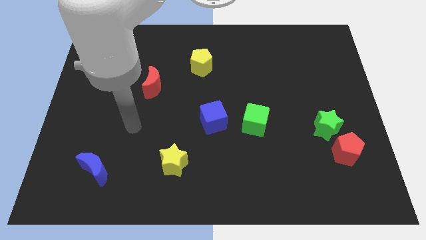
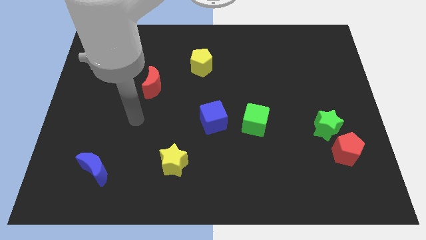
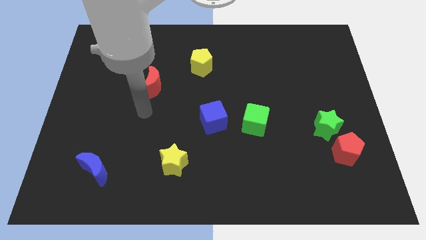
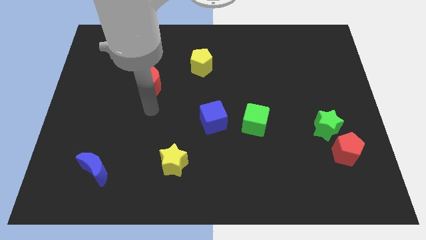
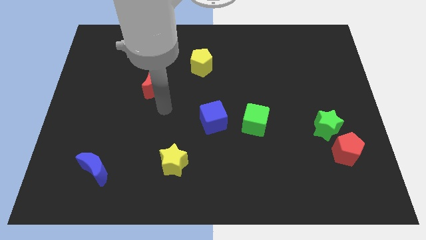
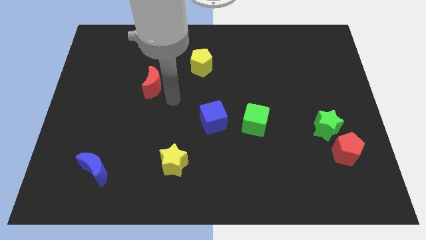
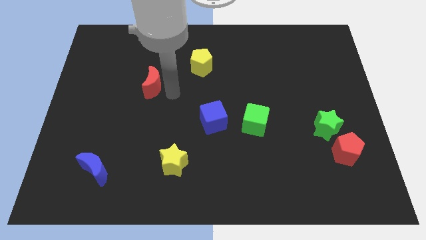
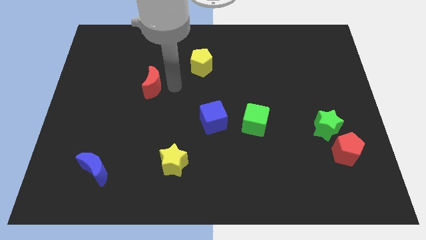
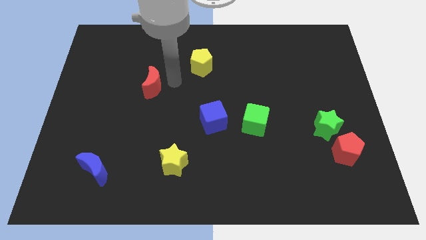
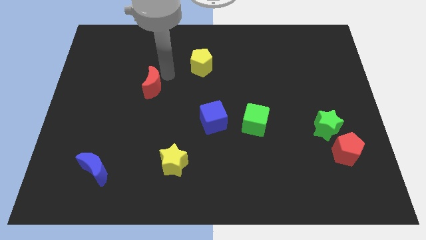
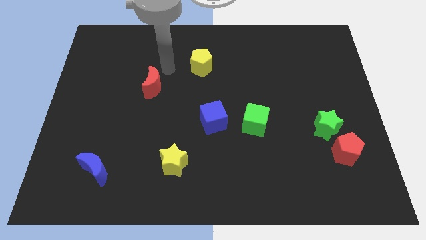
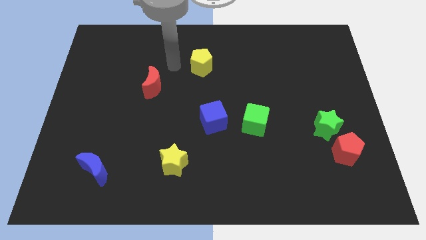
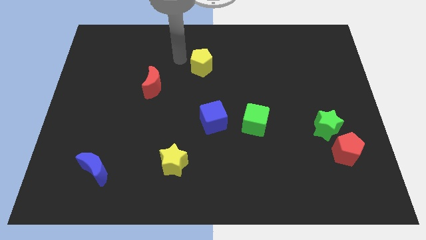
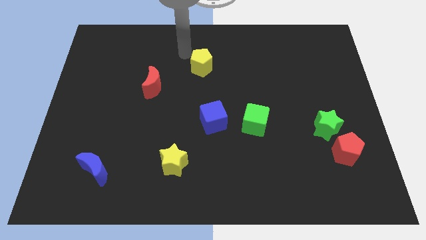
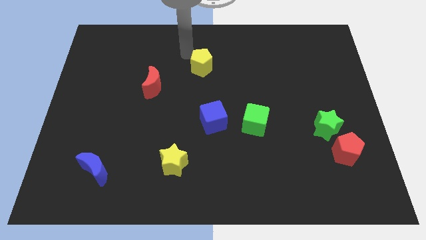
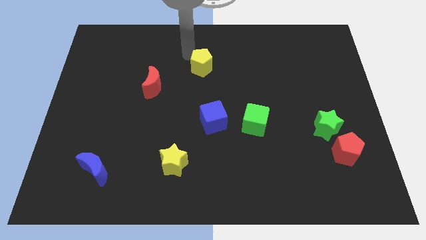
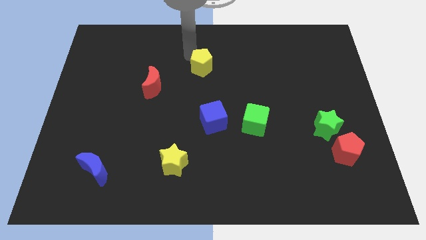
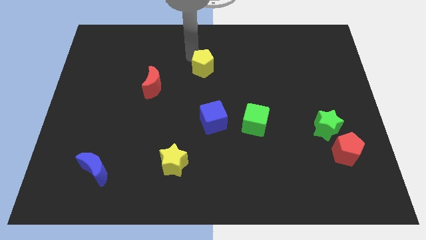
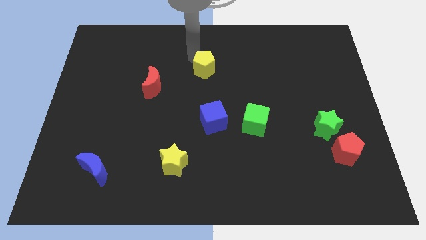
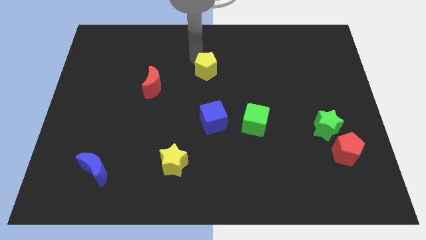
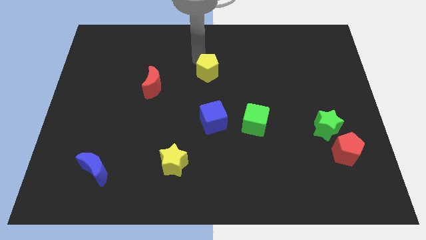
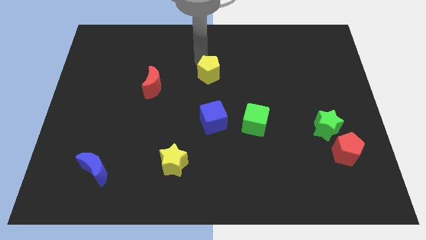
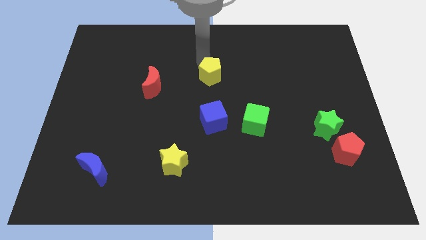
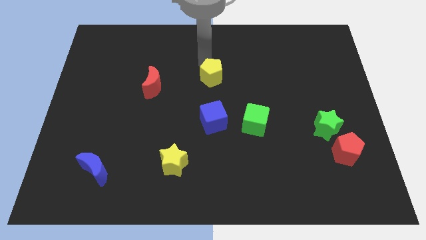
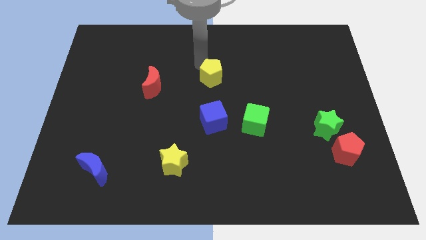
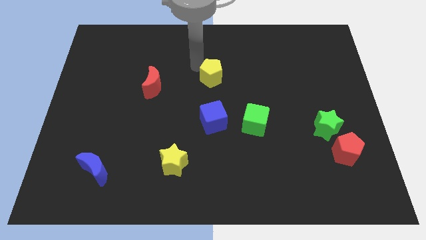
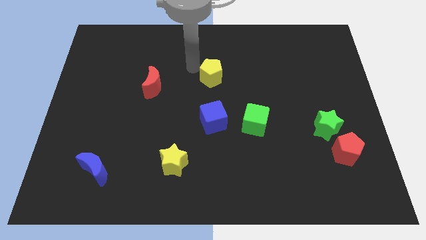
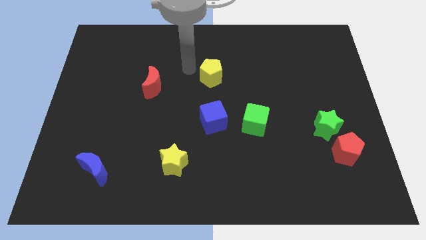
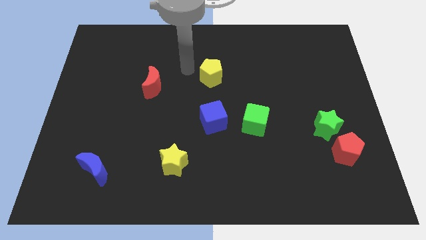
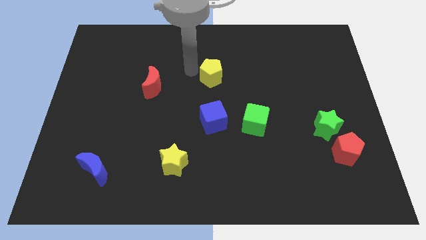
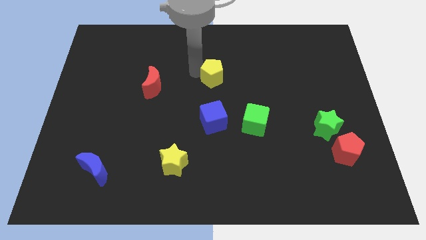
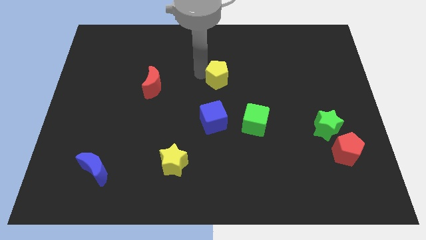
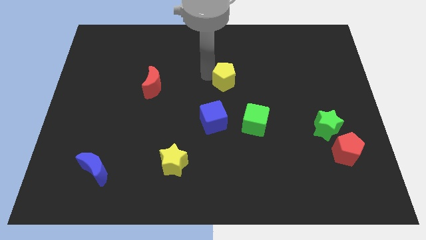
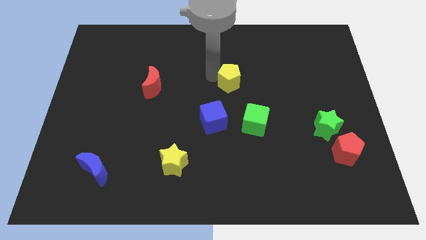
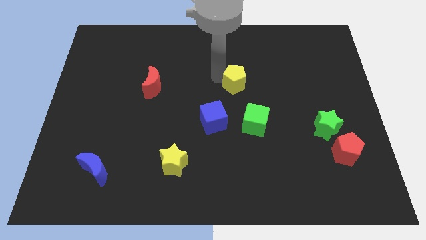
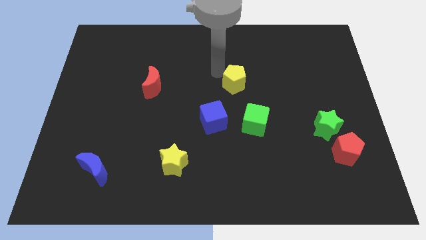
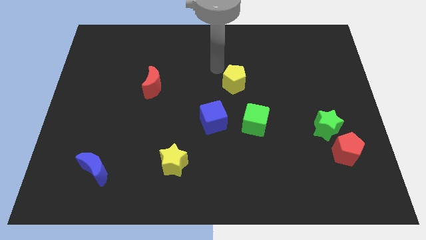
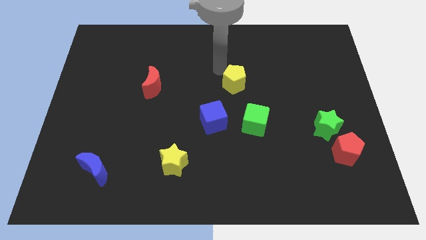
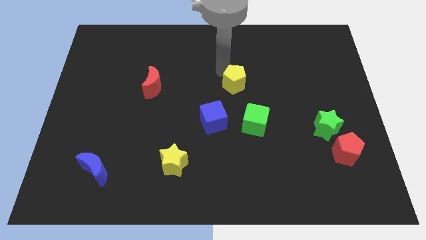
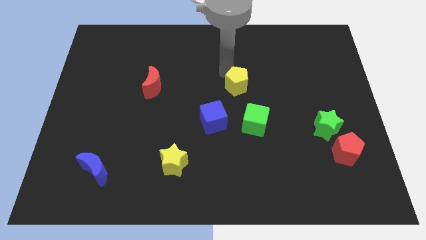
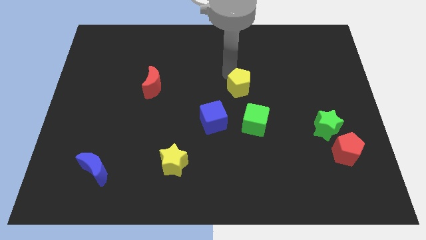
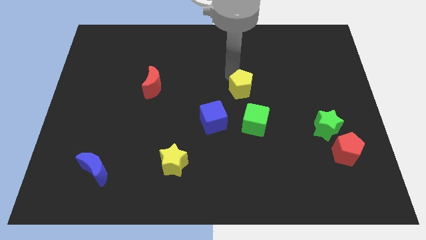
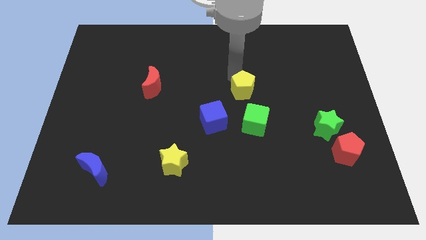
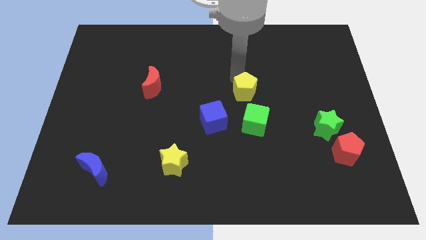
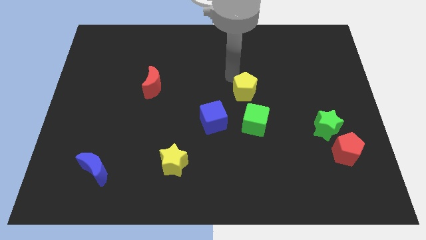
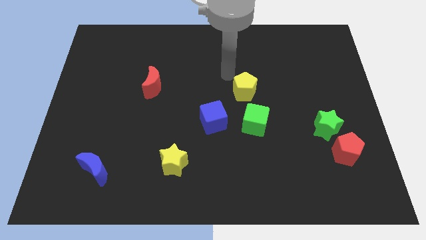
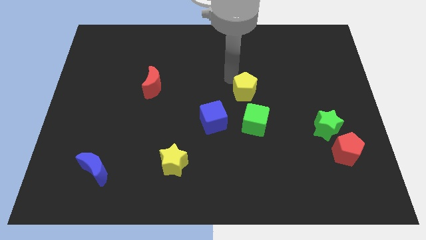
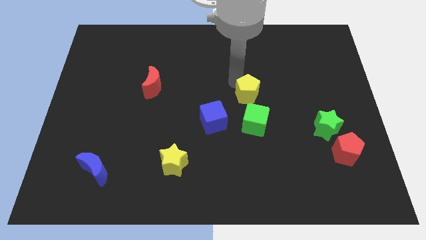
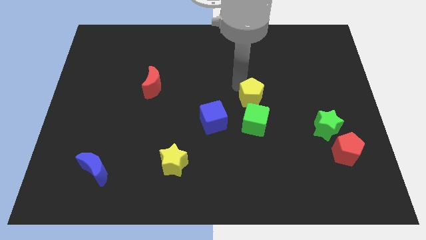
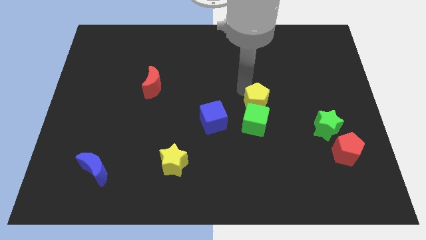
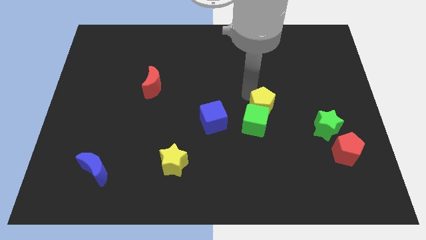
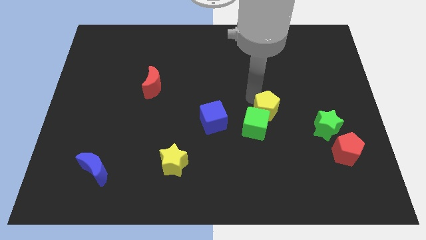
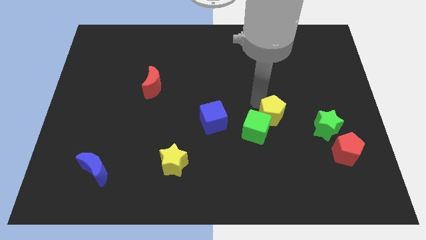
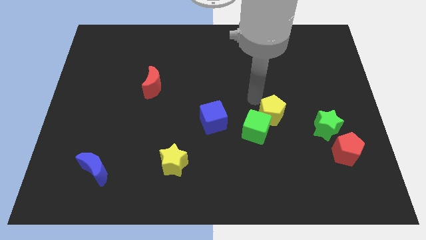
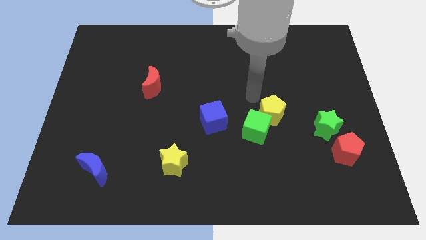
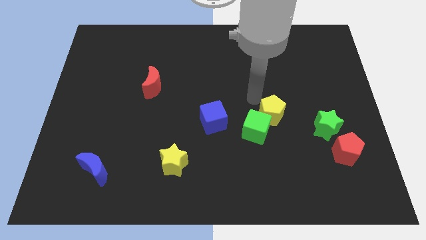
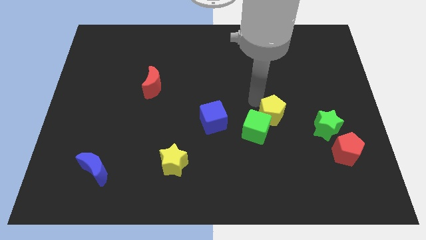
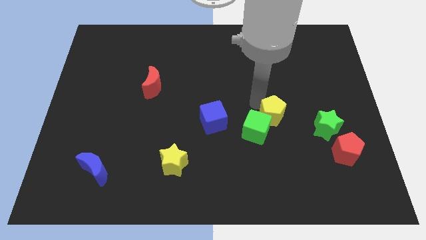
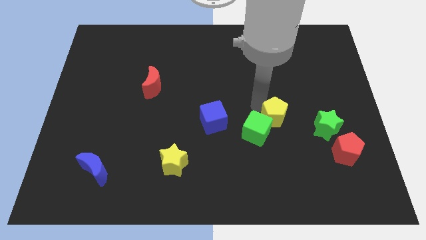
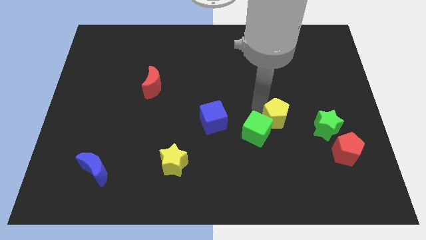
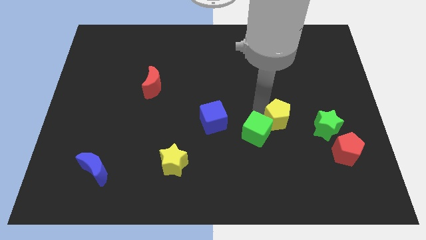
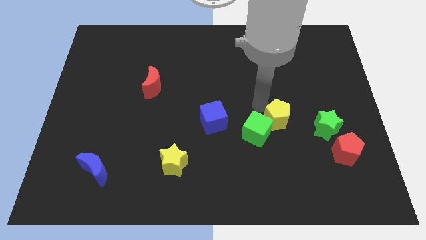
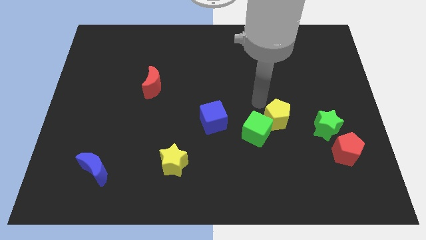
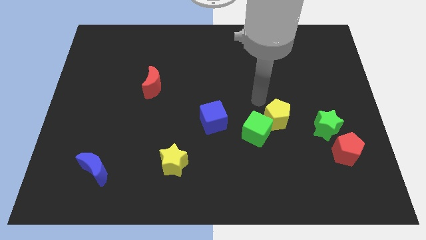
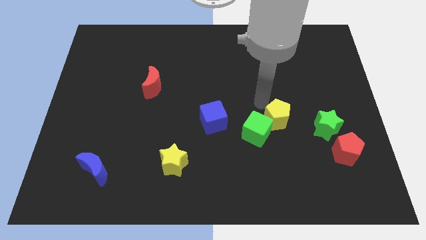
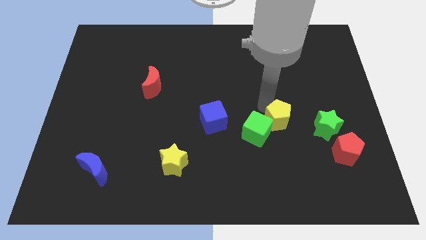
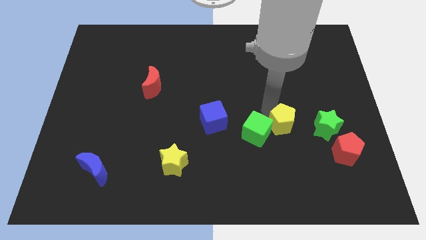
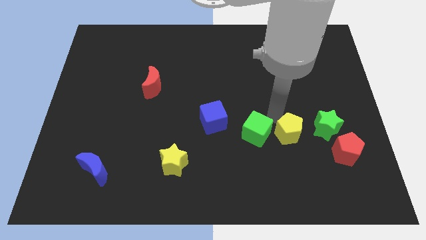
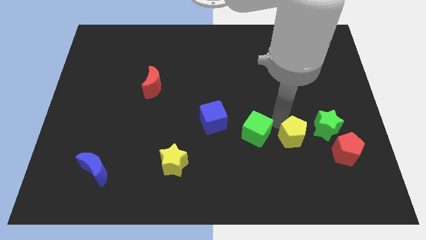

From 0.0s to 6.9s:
move the yellow pentagon to the bottom left side of the green star

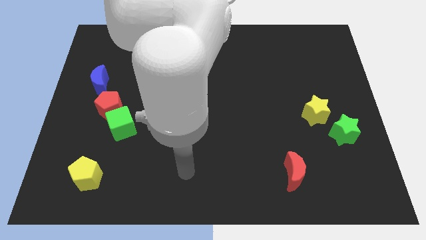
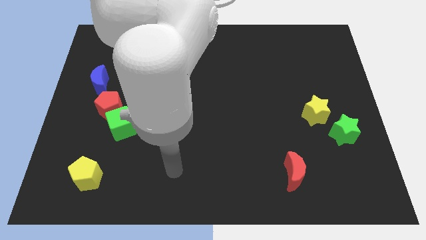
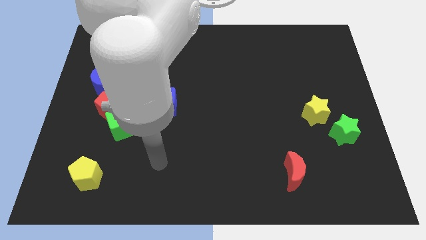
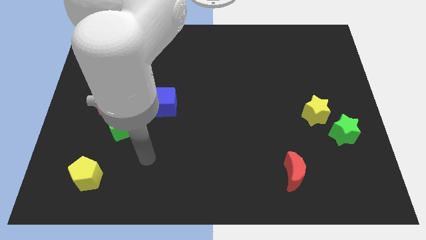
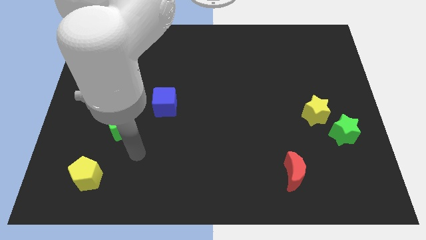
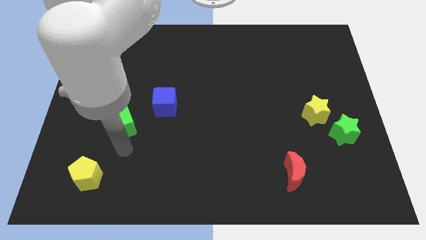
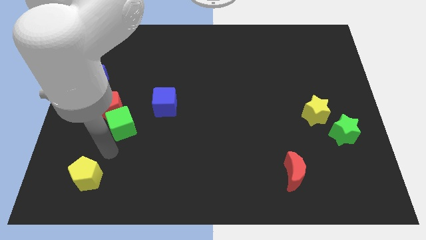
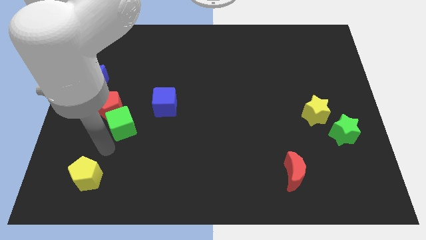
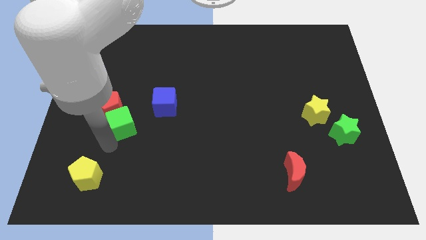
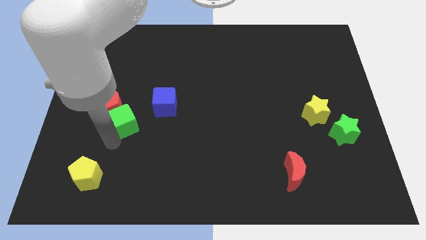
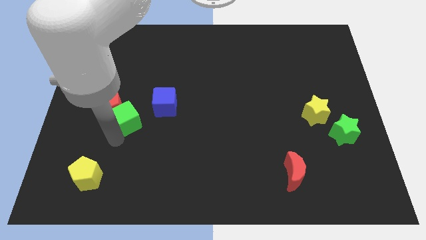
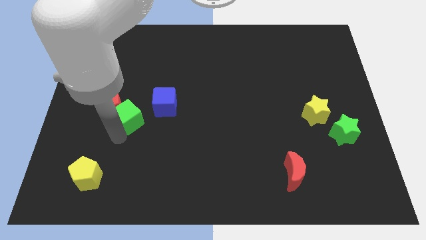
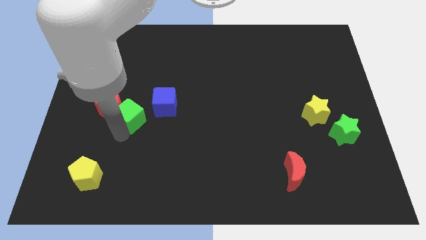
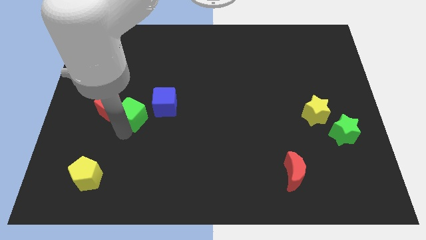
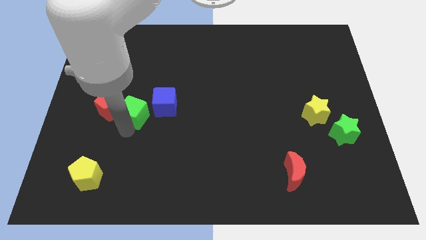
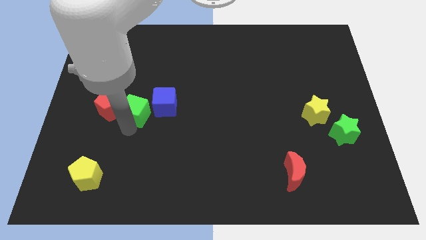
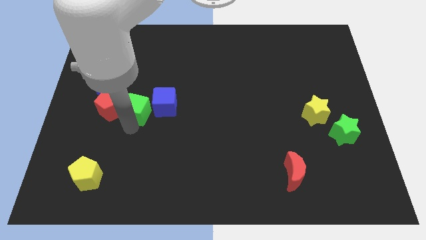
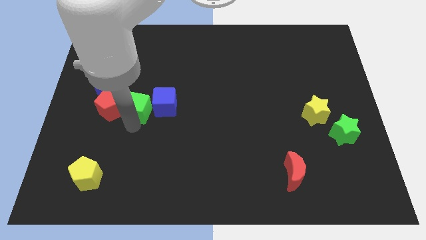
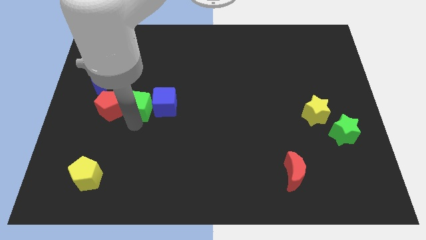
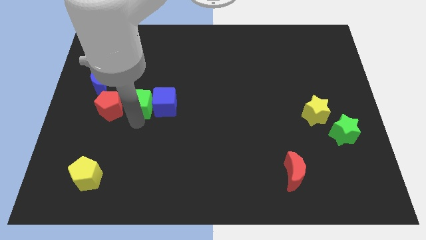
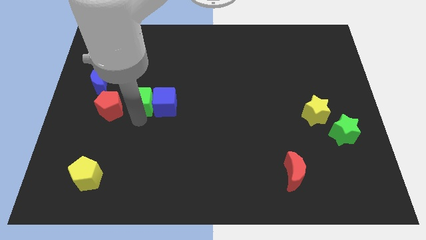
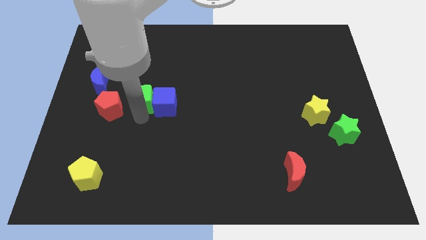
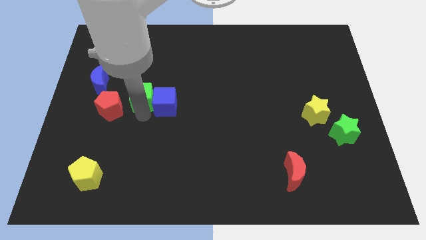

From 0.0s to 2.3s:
put the green cube to the right of the blue moon
